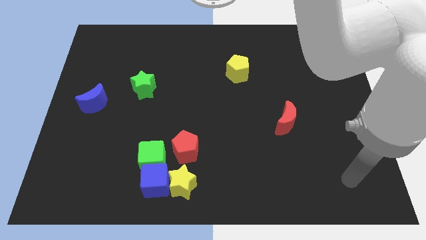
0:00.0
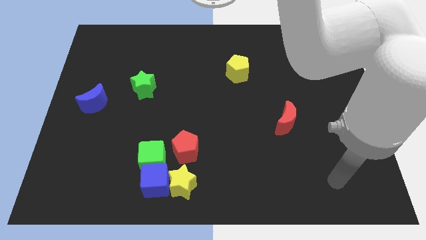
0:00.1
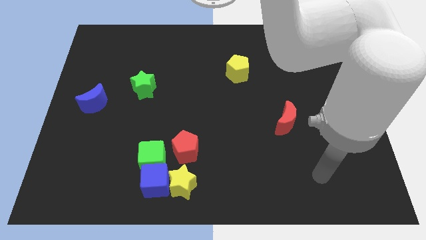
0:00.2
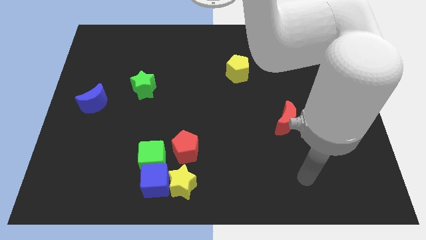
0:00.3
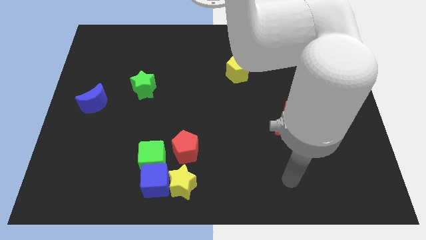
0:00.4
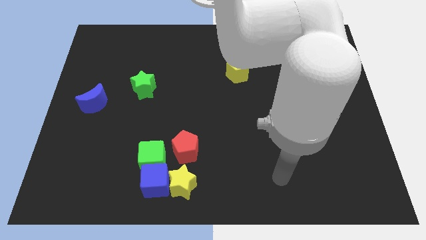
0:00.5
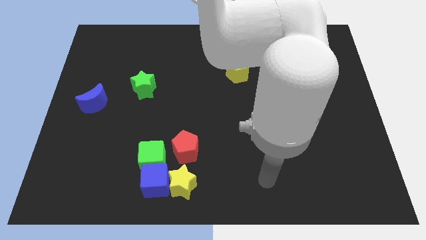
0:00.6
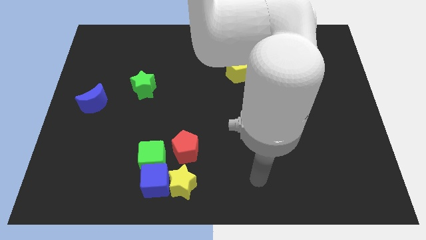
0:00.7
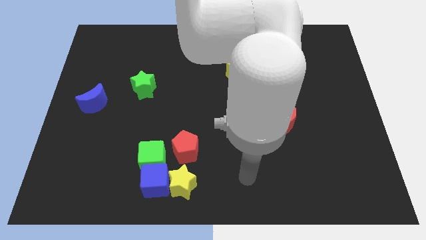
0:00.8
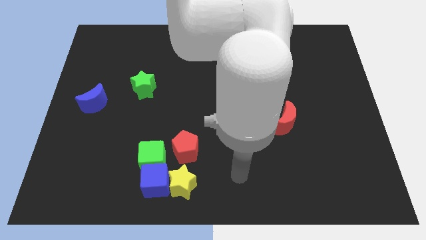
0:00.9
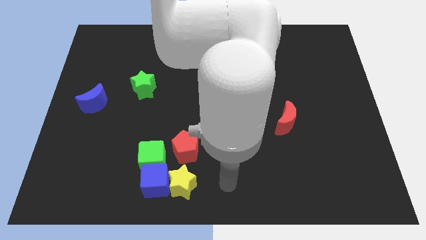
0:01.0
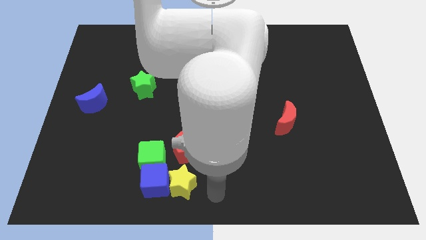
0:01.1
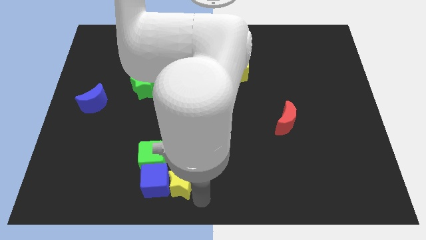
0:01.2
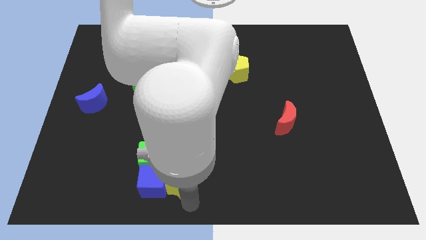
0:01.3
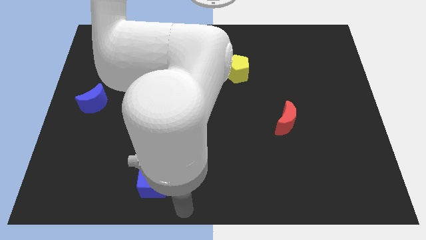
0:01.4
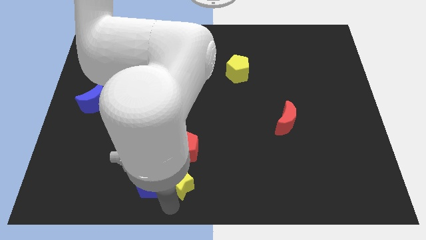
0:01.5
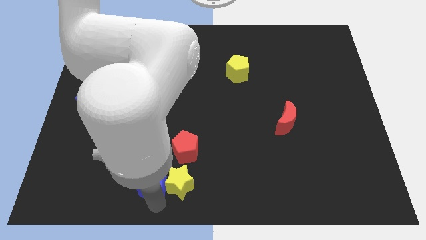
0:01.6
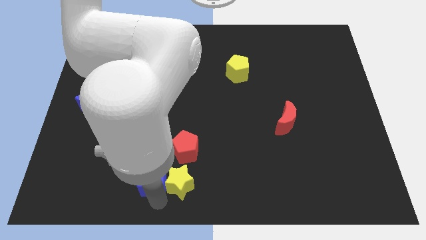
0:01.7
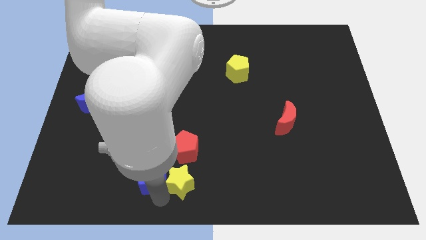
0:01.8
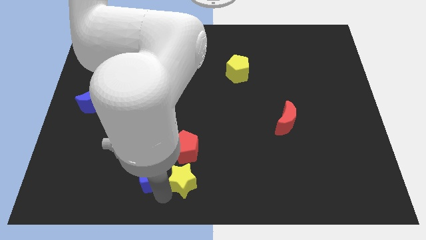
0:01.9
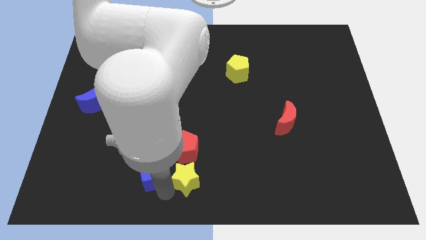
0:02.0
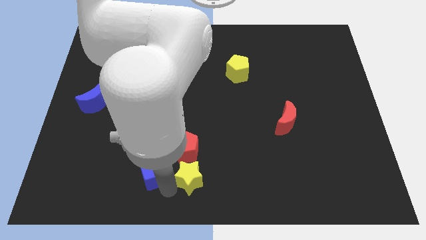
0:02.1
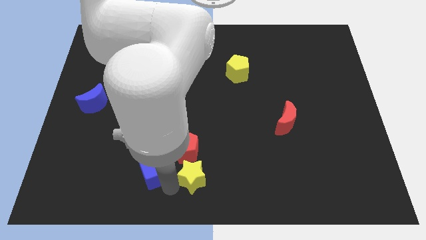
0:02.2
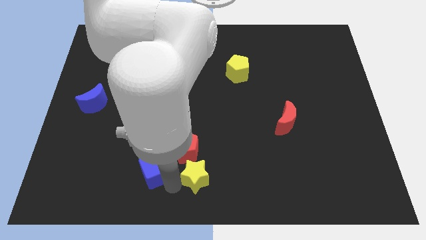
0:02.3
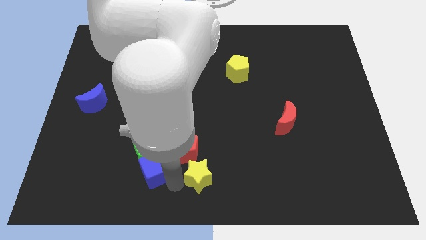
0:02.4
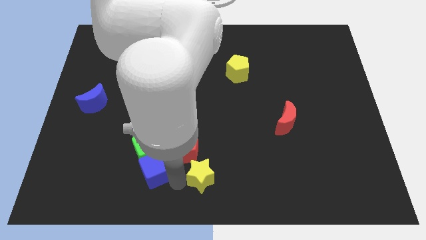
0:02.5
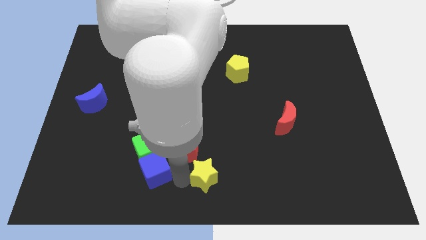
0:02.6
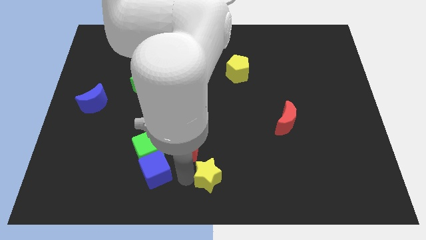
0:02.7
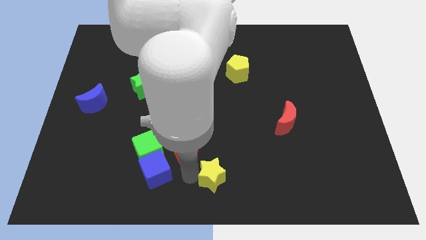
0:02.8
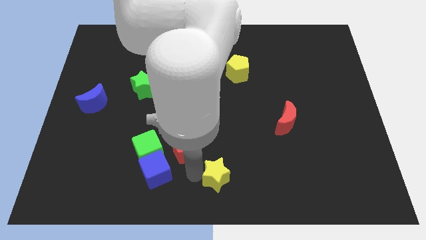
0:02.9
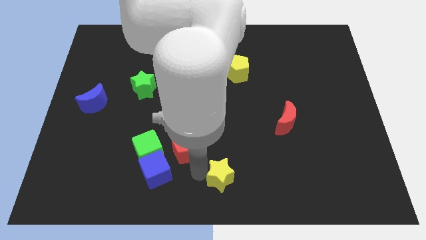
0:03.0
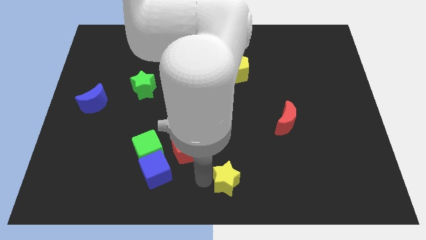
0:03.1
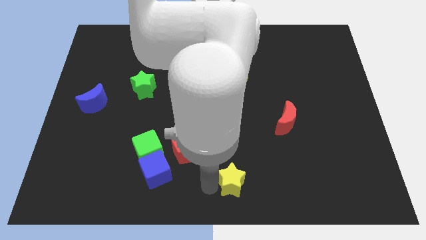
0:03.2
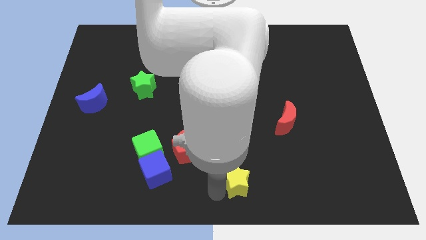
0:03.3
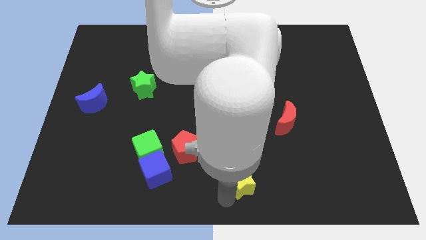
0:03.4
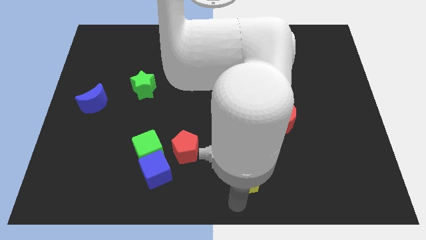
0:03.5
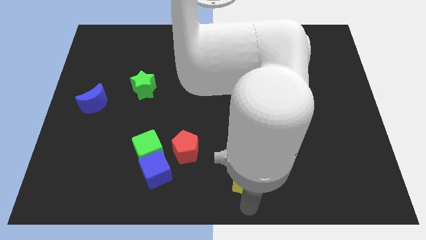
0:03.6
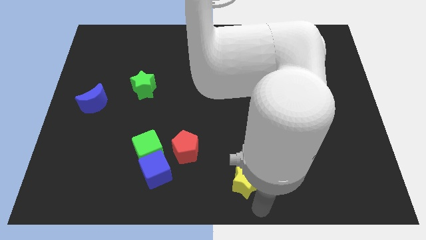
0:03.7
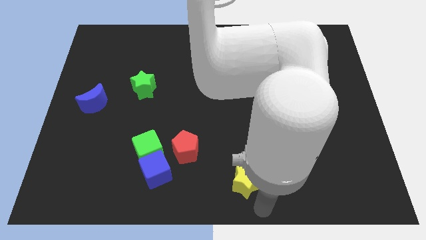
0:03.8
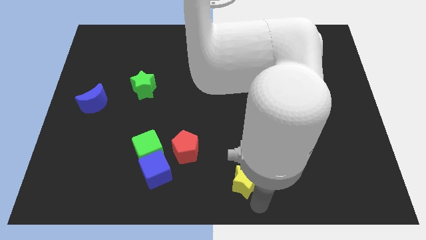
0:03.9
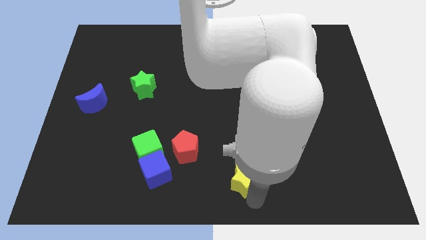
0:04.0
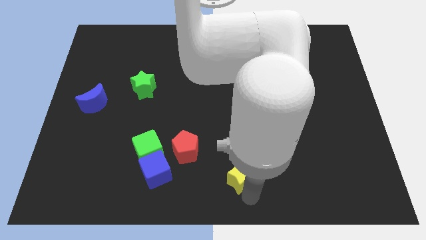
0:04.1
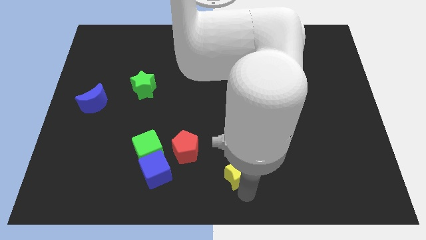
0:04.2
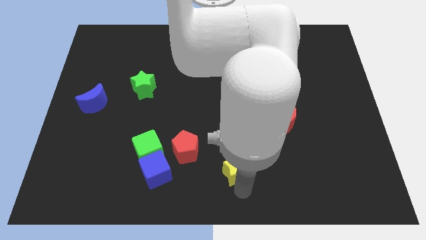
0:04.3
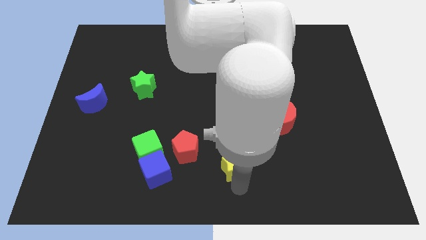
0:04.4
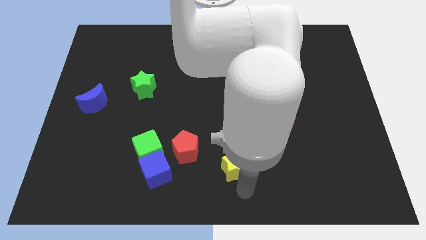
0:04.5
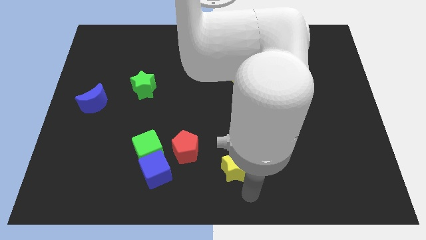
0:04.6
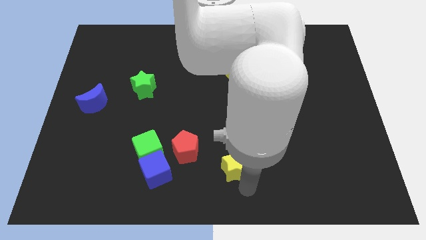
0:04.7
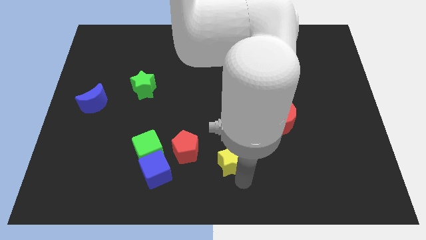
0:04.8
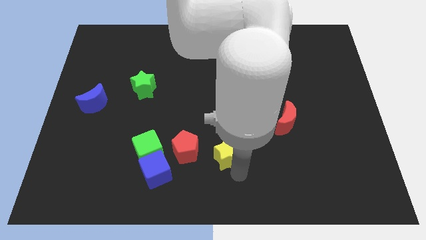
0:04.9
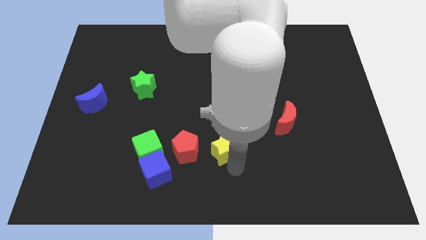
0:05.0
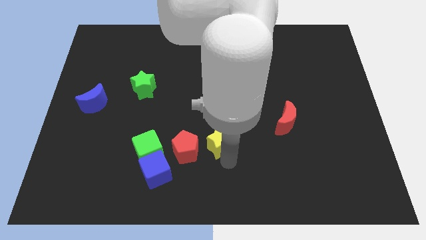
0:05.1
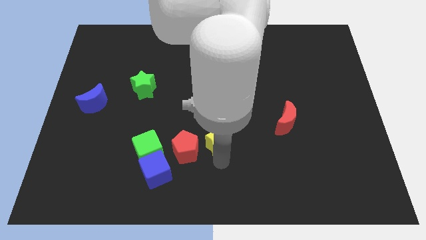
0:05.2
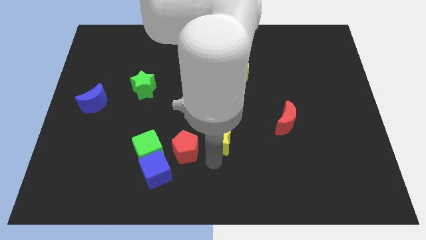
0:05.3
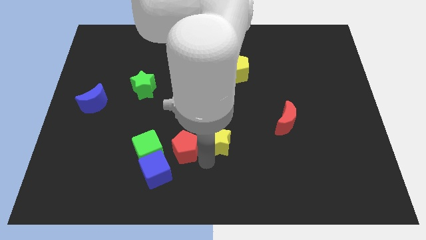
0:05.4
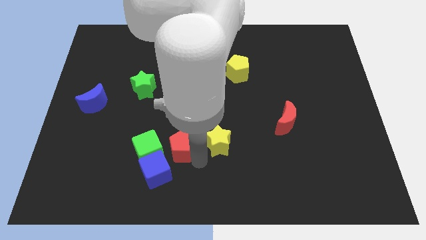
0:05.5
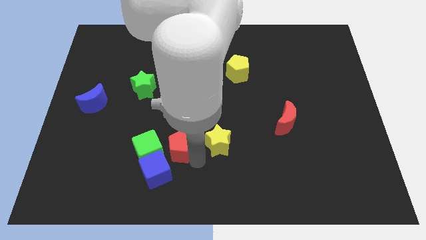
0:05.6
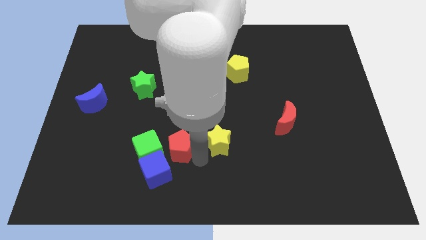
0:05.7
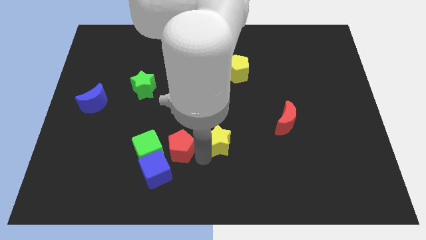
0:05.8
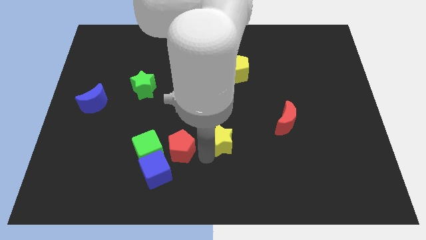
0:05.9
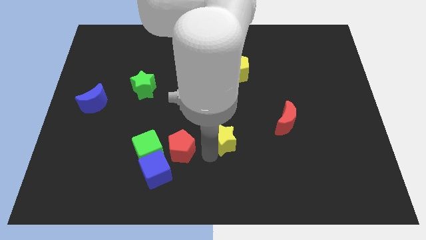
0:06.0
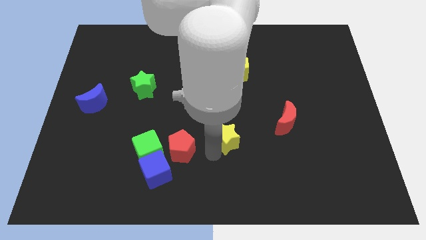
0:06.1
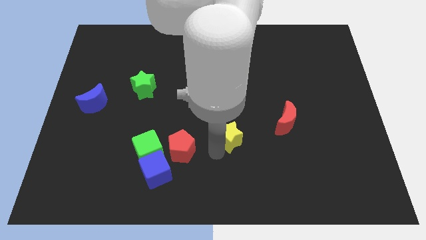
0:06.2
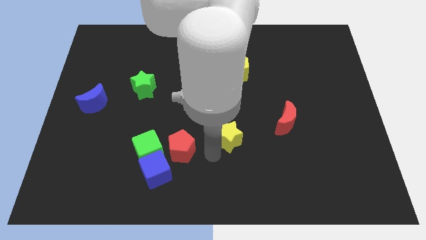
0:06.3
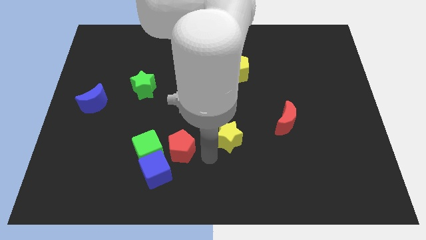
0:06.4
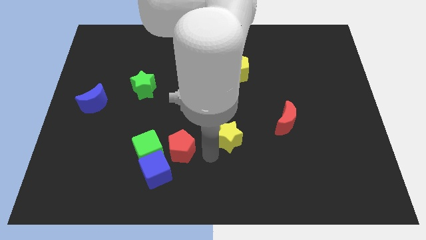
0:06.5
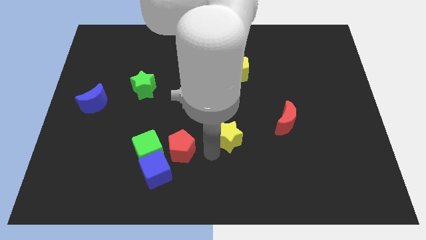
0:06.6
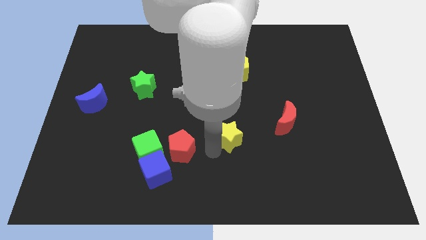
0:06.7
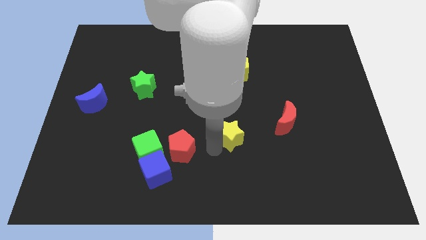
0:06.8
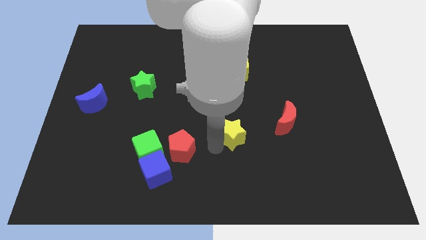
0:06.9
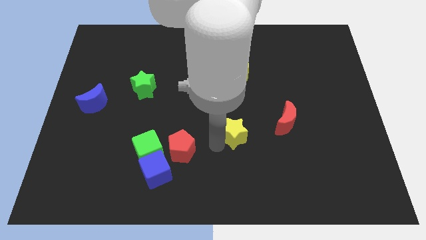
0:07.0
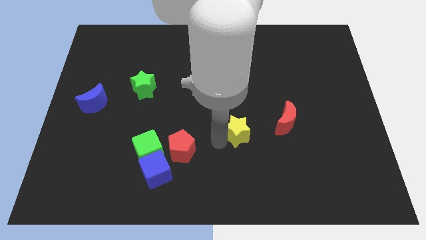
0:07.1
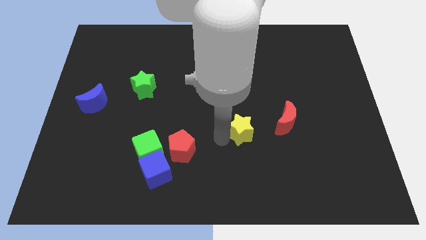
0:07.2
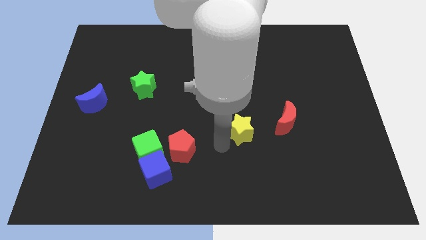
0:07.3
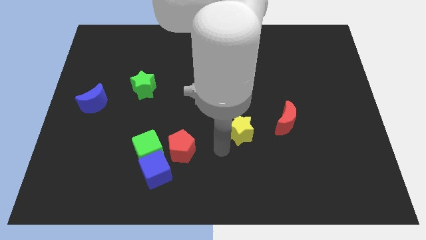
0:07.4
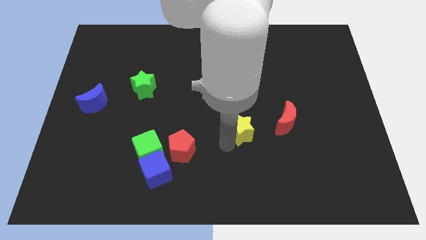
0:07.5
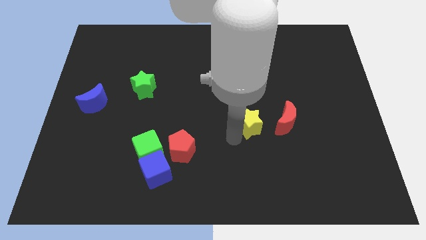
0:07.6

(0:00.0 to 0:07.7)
slide the yellow star upwards and to the right

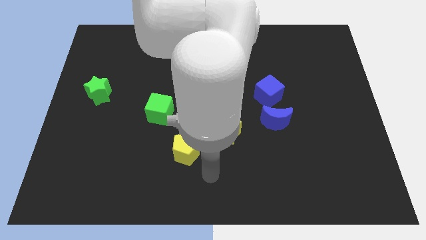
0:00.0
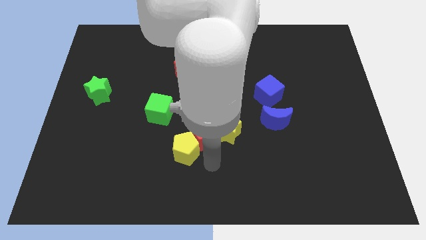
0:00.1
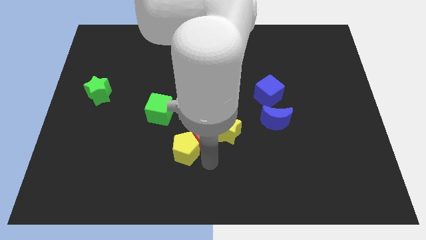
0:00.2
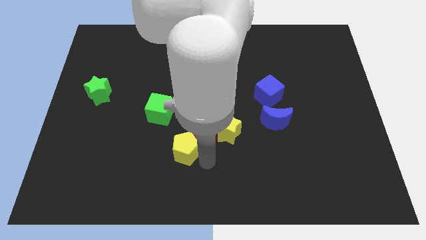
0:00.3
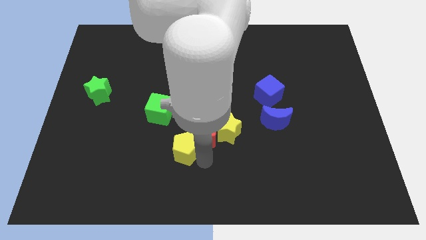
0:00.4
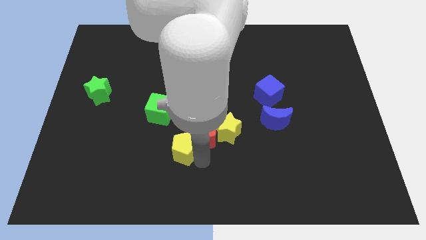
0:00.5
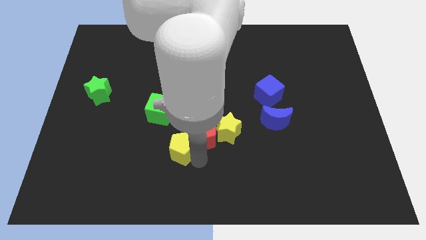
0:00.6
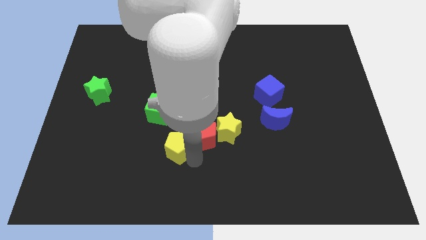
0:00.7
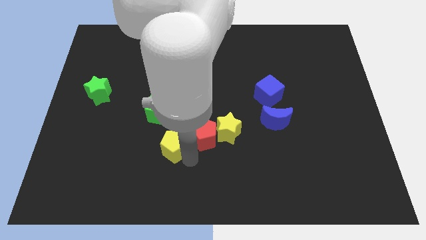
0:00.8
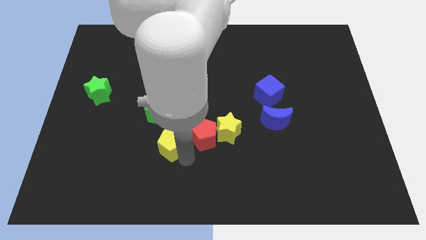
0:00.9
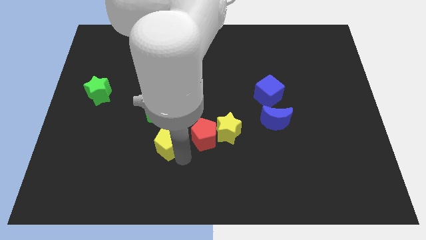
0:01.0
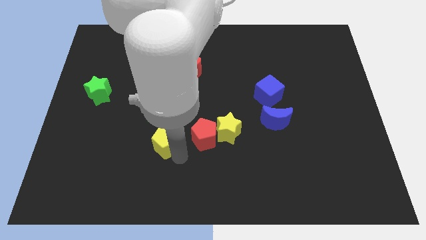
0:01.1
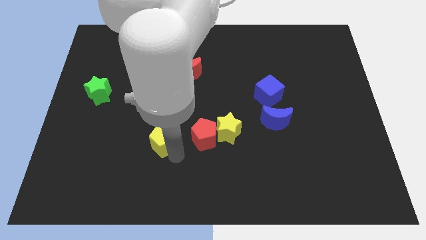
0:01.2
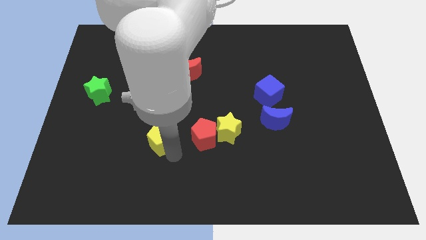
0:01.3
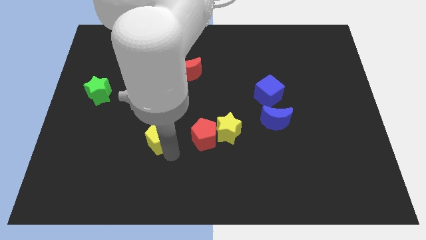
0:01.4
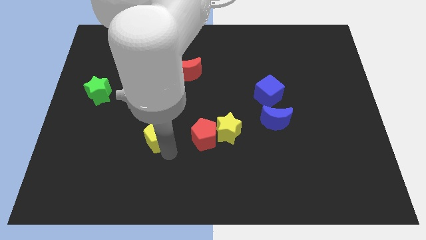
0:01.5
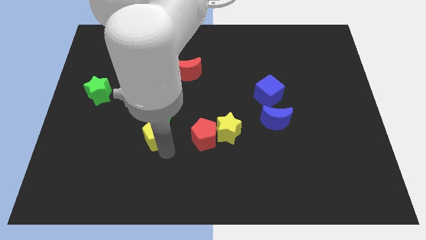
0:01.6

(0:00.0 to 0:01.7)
slide the yellow pentagon up and then left a little bit
